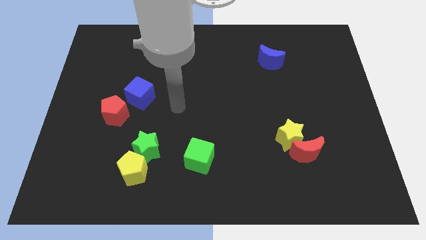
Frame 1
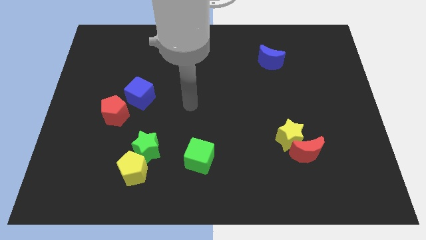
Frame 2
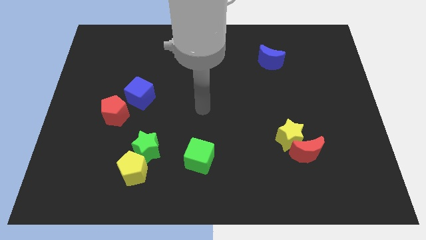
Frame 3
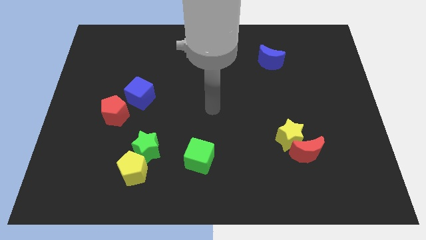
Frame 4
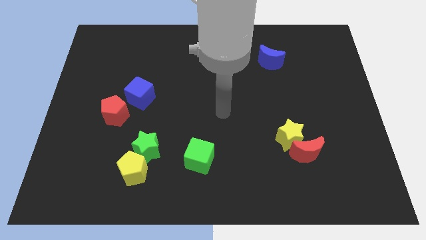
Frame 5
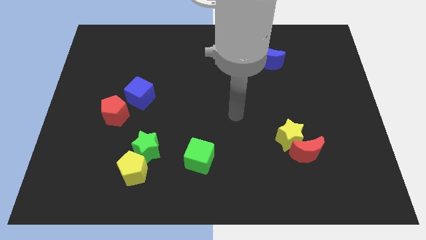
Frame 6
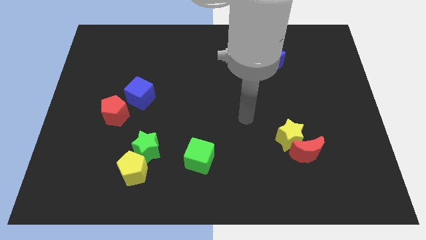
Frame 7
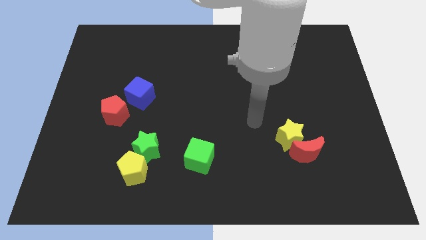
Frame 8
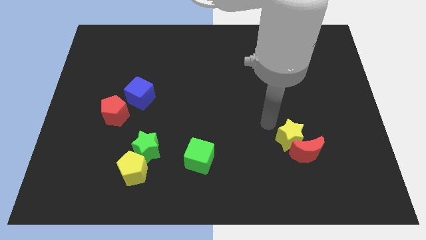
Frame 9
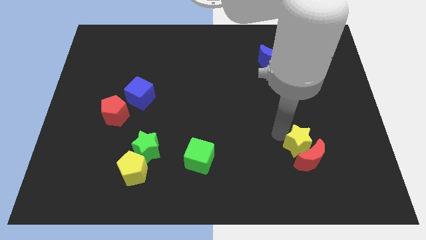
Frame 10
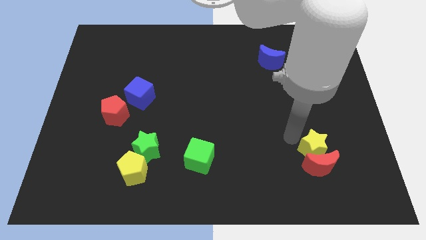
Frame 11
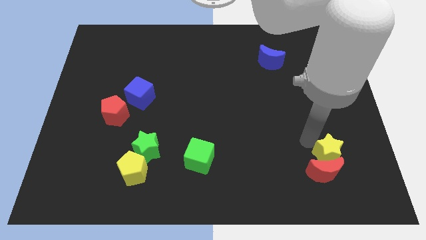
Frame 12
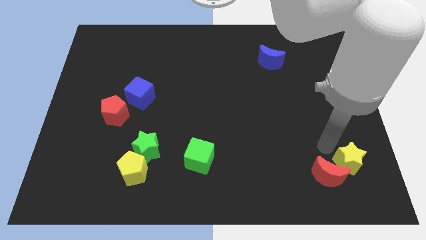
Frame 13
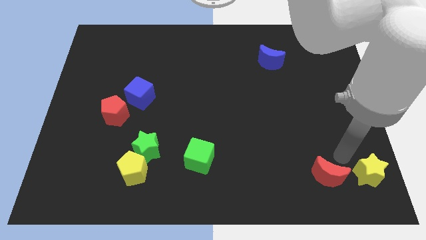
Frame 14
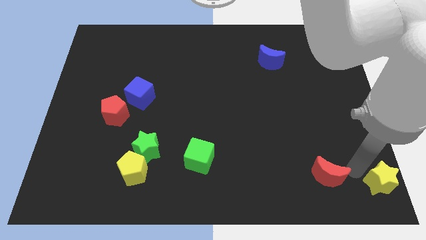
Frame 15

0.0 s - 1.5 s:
separate the red moon from the yellow star

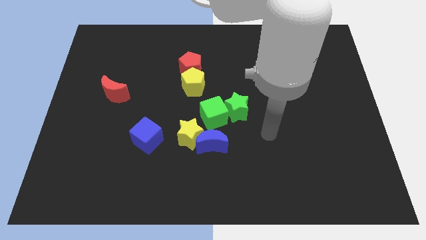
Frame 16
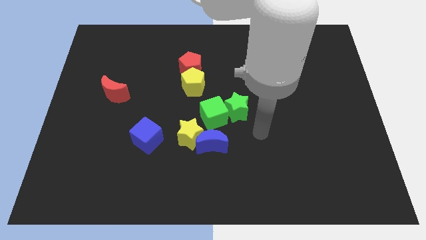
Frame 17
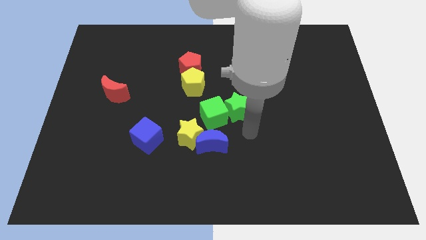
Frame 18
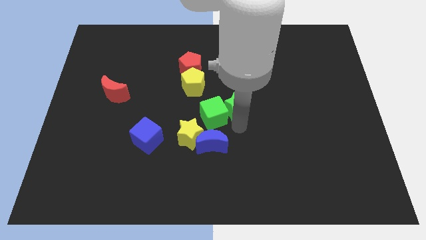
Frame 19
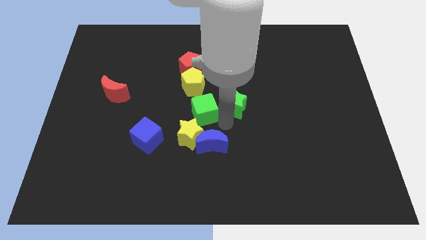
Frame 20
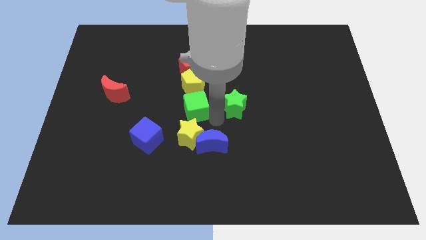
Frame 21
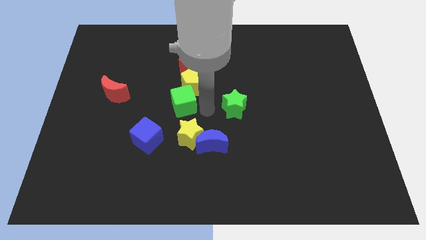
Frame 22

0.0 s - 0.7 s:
pull the green star apart from the green cube

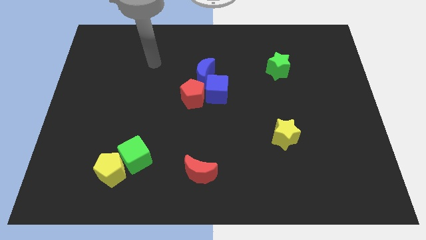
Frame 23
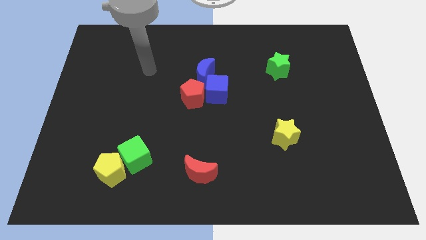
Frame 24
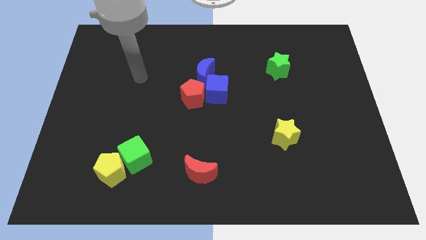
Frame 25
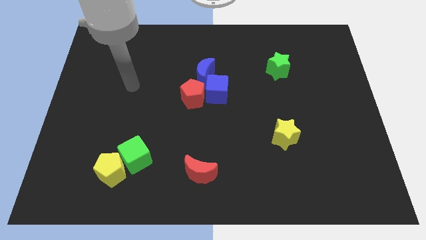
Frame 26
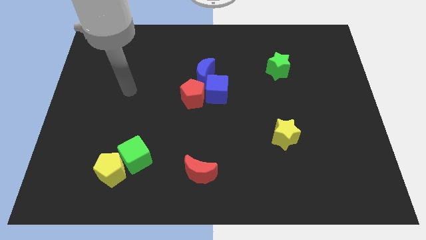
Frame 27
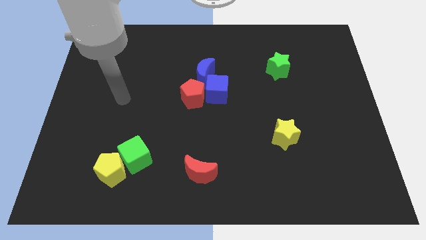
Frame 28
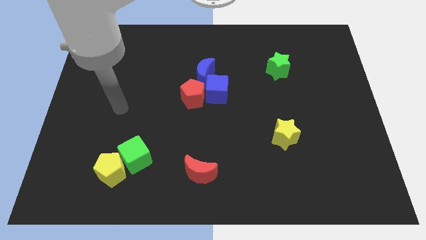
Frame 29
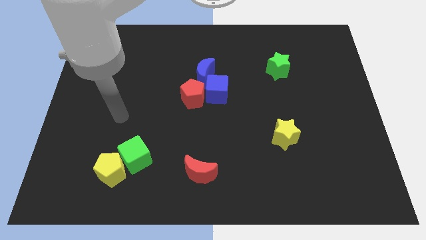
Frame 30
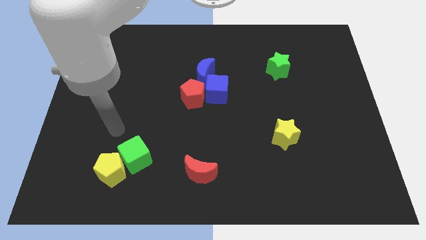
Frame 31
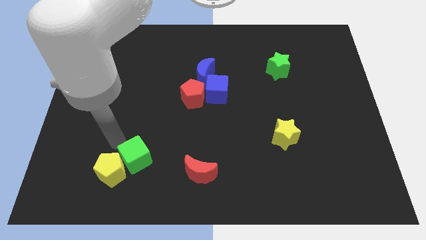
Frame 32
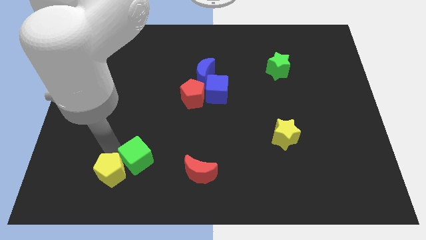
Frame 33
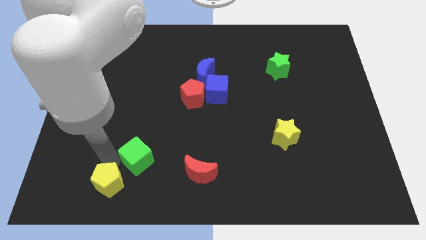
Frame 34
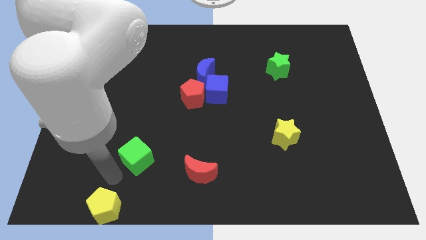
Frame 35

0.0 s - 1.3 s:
pull the green cube apart from the yellow pentagon

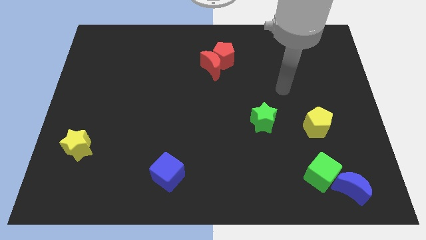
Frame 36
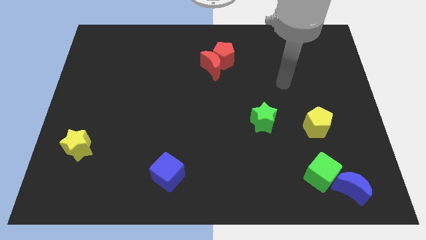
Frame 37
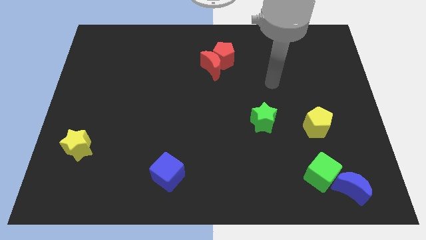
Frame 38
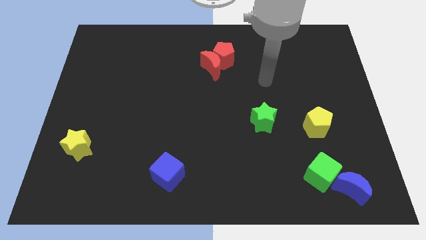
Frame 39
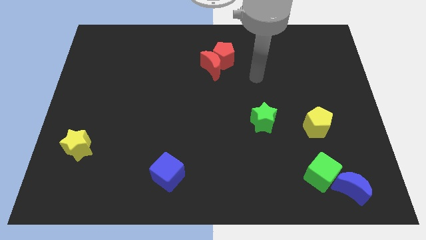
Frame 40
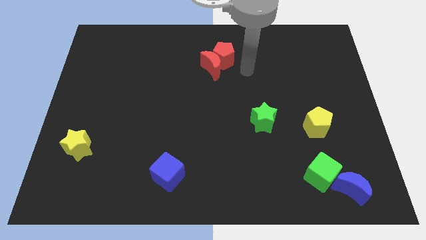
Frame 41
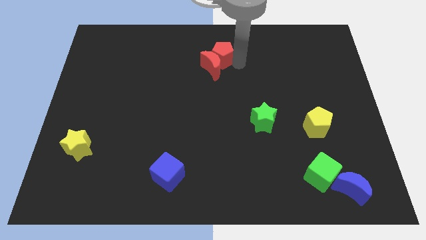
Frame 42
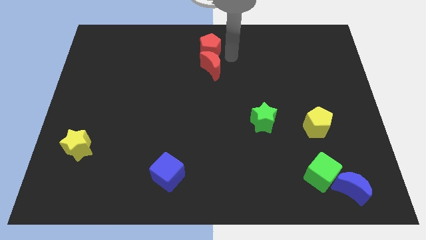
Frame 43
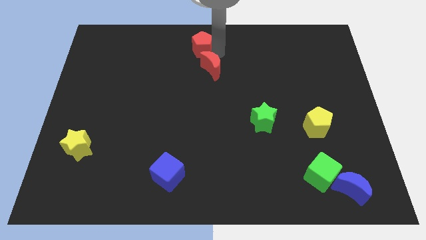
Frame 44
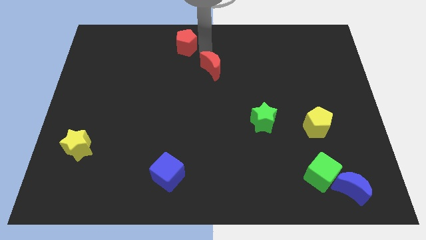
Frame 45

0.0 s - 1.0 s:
move the red moon away from the red pentagon

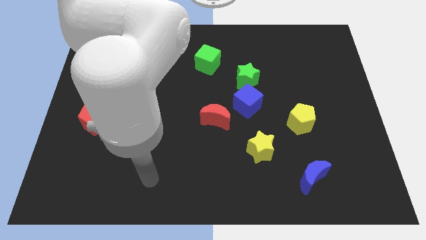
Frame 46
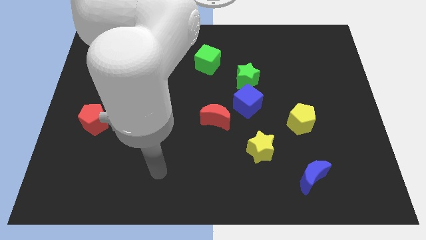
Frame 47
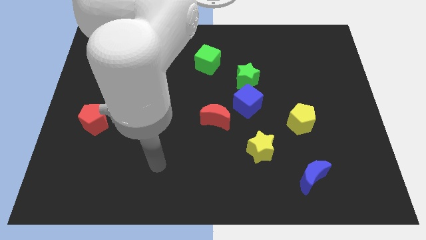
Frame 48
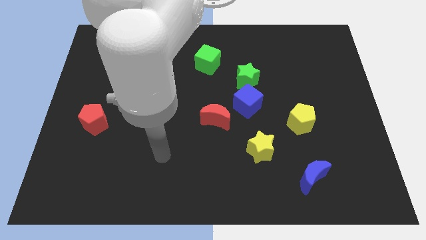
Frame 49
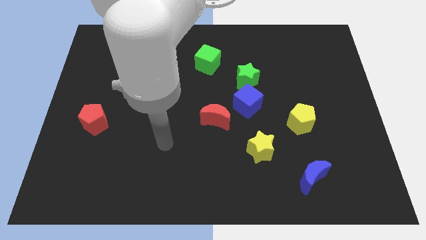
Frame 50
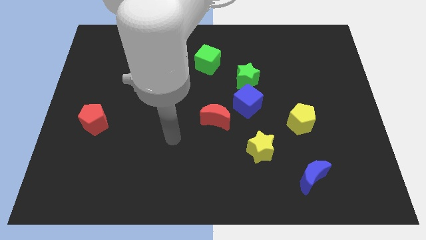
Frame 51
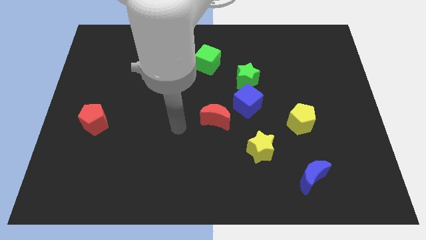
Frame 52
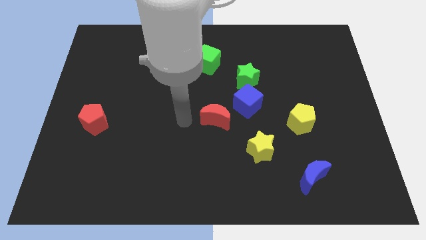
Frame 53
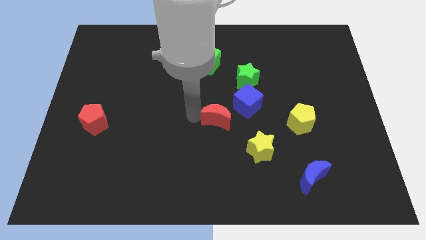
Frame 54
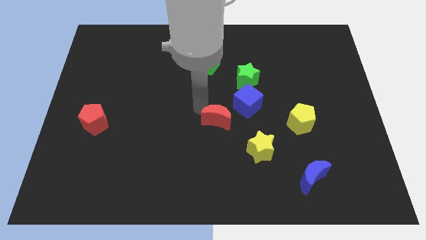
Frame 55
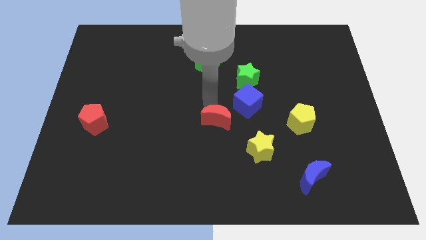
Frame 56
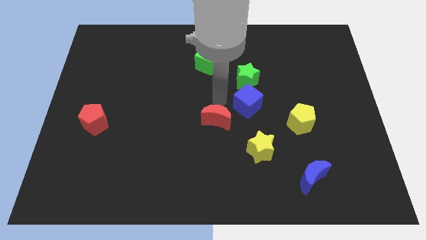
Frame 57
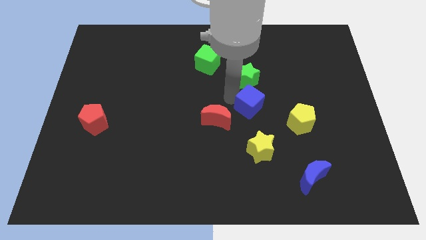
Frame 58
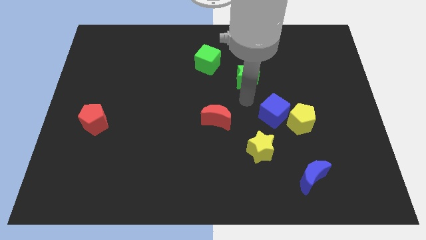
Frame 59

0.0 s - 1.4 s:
move the green star away from the blue cube

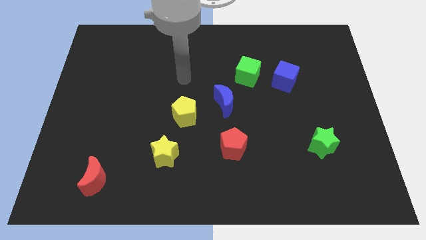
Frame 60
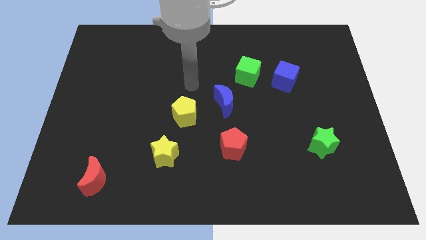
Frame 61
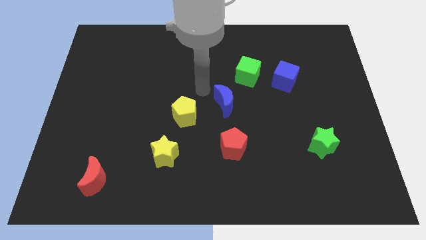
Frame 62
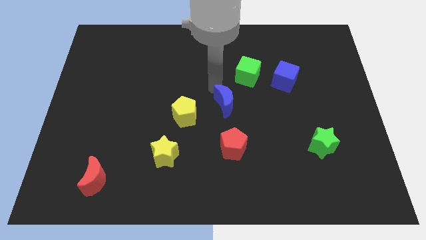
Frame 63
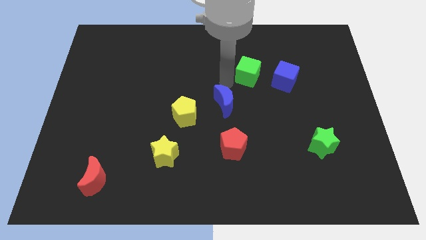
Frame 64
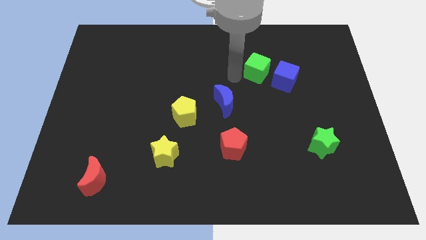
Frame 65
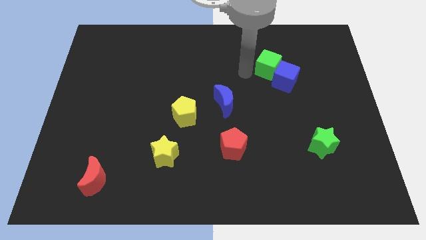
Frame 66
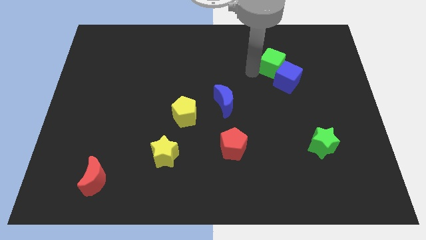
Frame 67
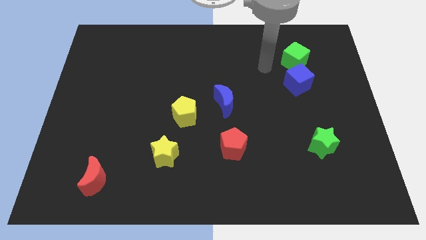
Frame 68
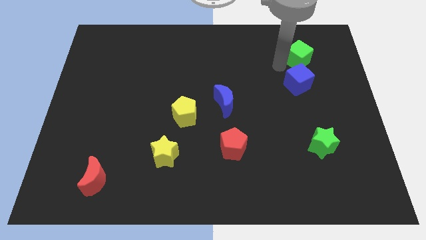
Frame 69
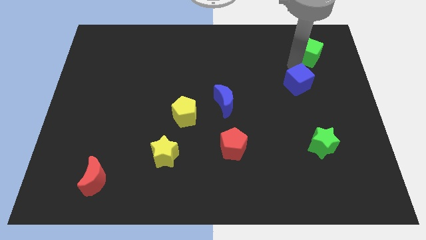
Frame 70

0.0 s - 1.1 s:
pull the blue cube apart from the green cube

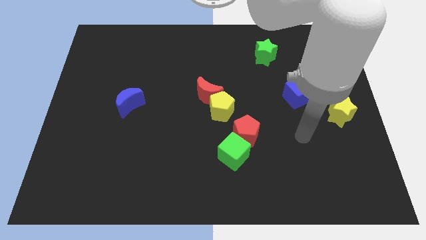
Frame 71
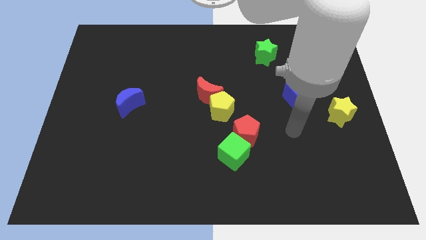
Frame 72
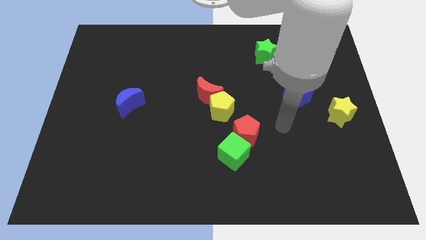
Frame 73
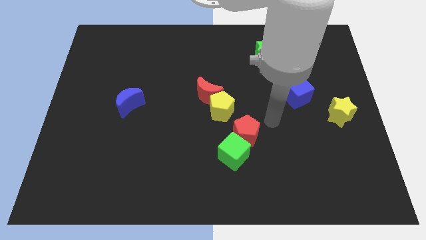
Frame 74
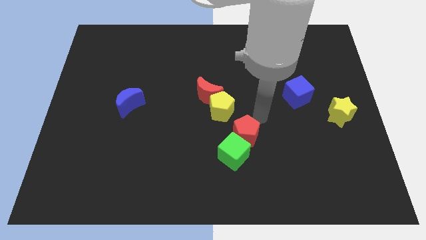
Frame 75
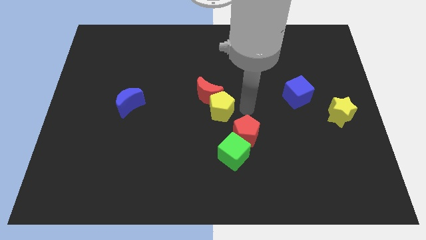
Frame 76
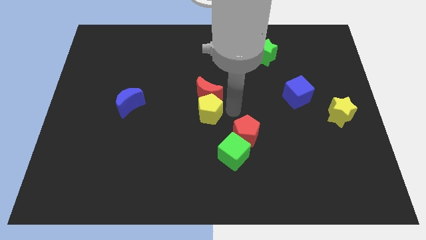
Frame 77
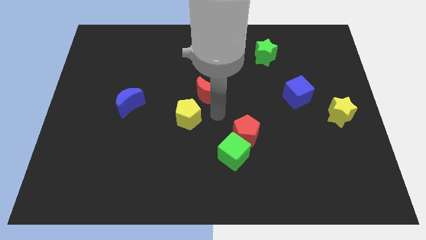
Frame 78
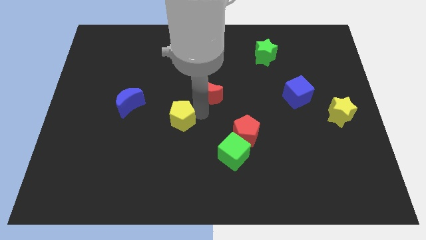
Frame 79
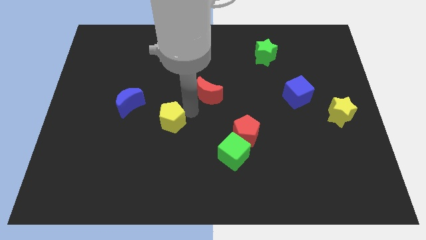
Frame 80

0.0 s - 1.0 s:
pull the red moon apart from the yellow pentagon

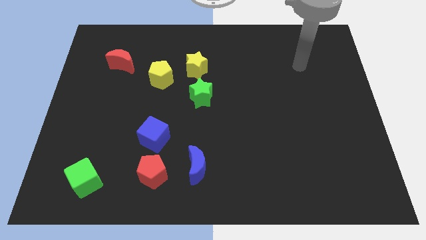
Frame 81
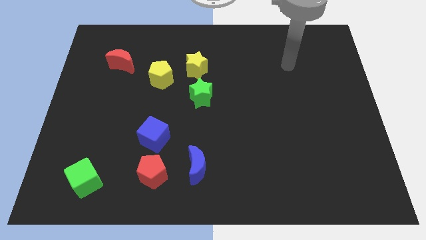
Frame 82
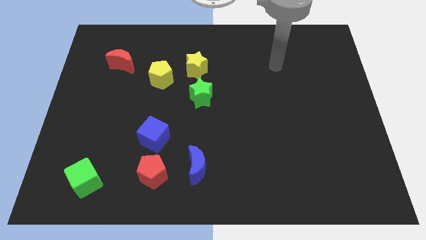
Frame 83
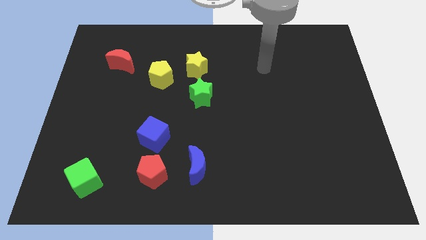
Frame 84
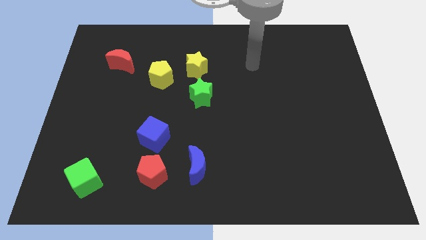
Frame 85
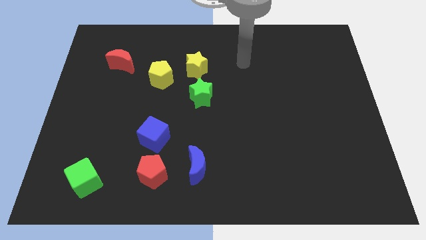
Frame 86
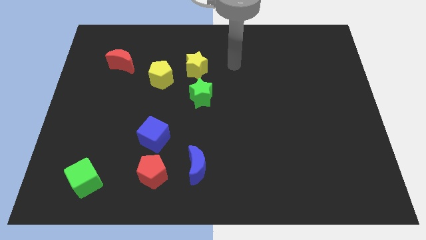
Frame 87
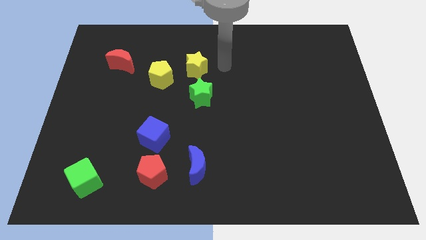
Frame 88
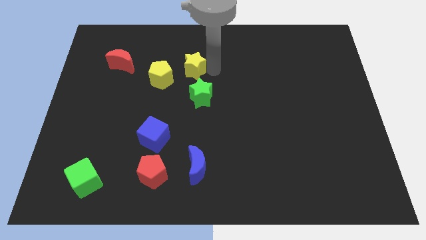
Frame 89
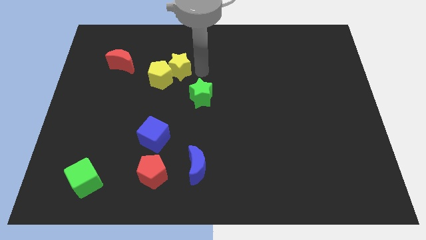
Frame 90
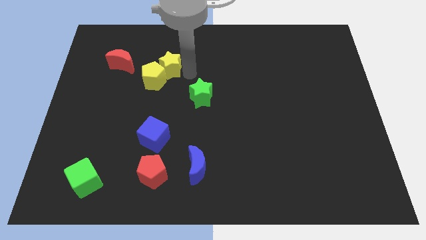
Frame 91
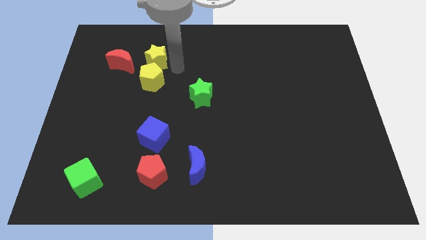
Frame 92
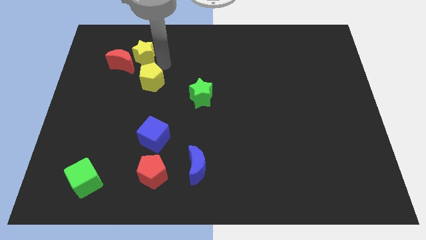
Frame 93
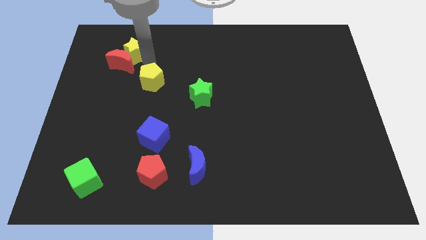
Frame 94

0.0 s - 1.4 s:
pull the yellow pentagon apart from the yellow star
